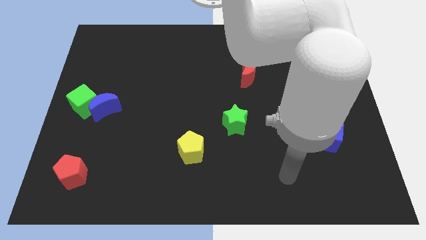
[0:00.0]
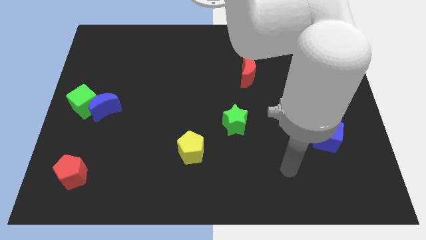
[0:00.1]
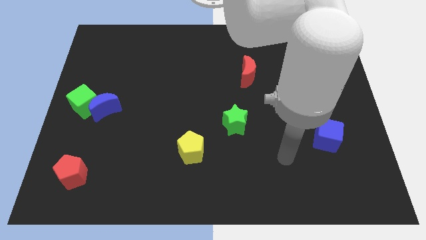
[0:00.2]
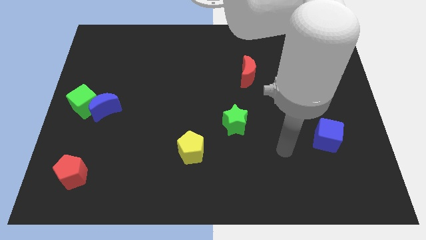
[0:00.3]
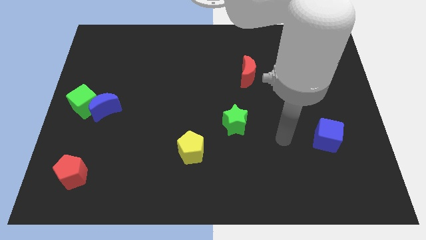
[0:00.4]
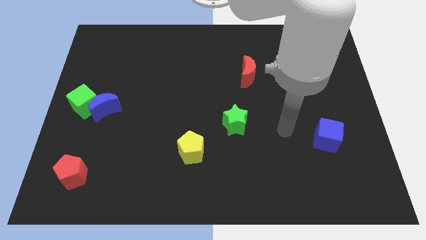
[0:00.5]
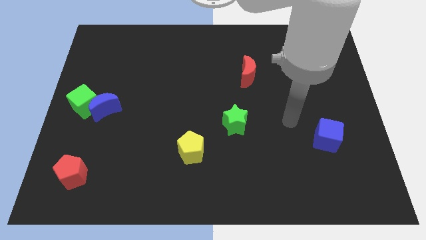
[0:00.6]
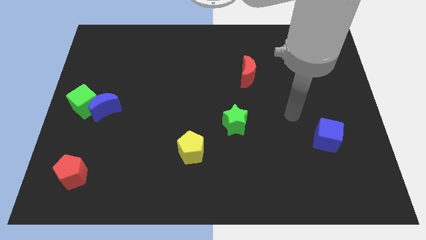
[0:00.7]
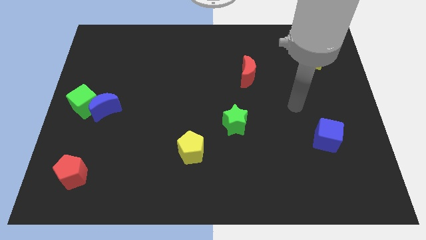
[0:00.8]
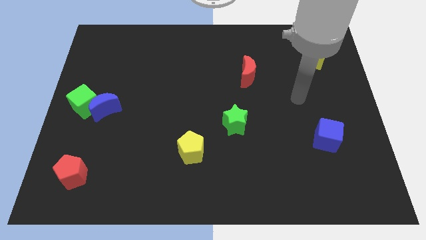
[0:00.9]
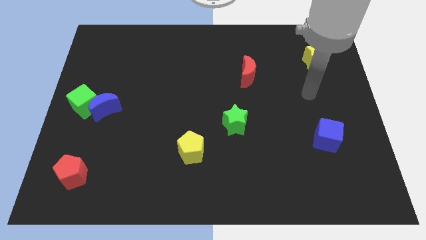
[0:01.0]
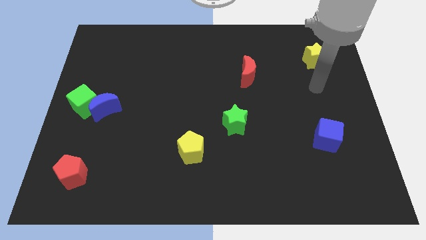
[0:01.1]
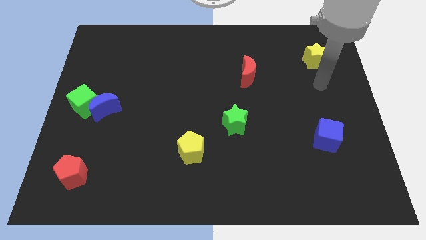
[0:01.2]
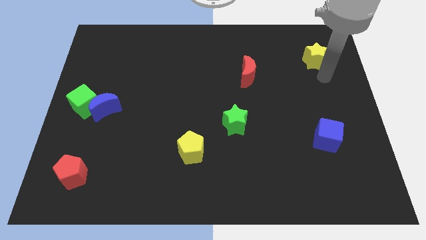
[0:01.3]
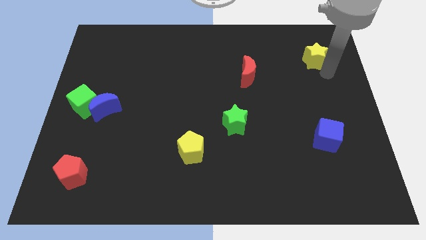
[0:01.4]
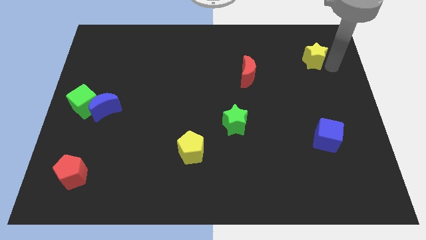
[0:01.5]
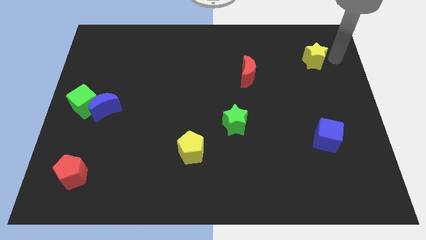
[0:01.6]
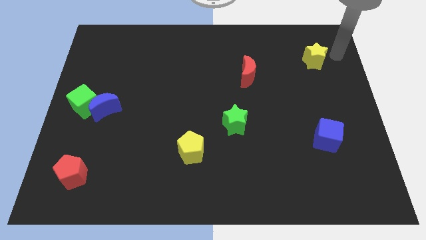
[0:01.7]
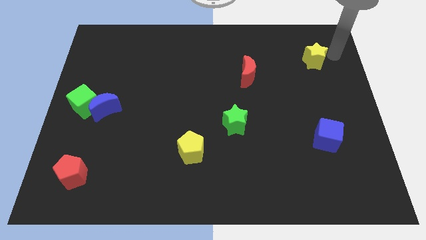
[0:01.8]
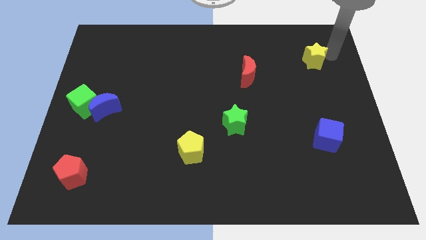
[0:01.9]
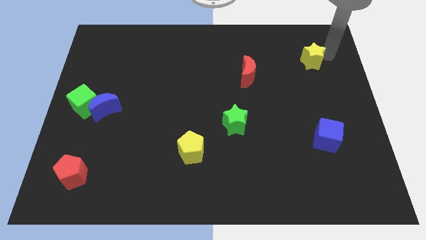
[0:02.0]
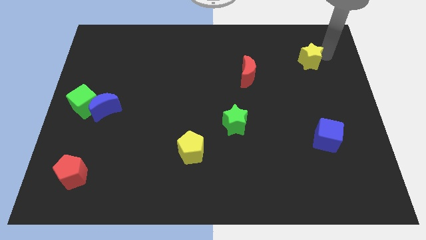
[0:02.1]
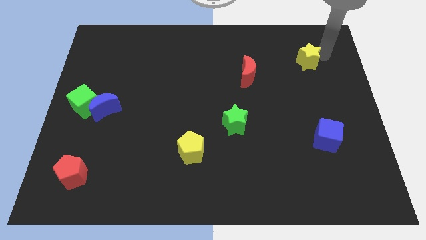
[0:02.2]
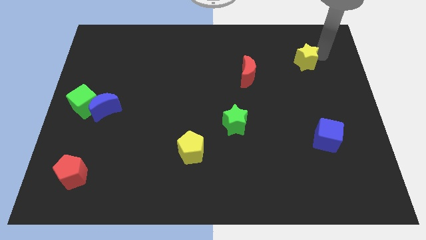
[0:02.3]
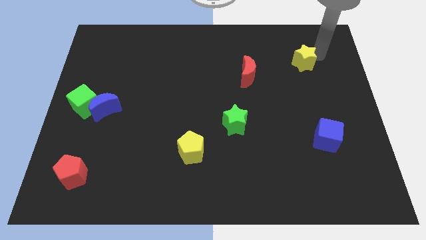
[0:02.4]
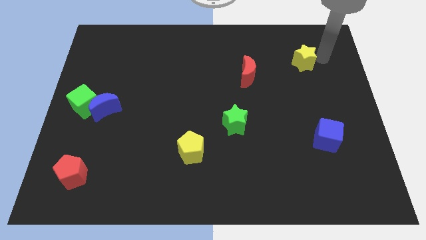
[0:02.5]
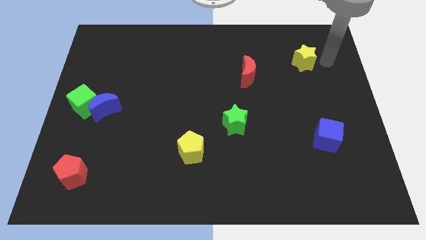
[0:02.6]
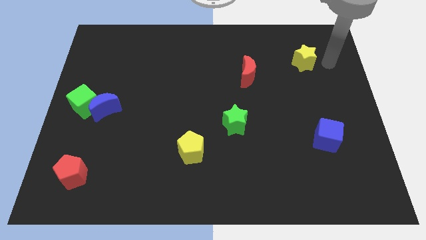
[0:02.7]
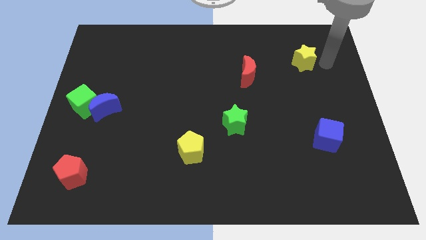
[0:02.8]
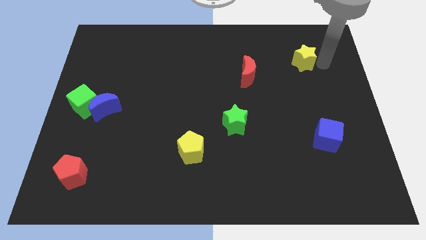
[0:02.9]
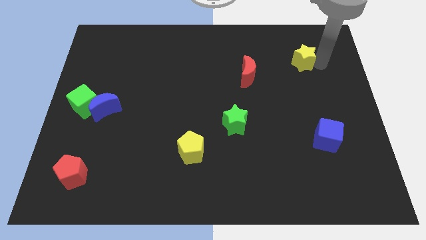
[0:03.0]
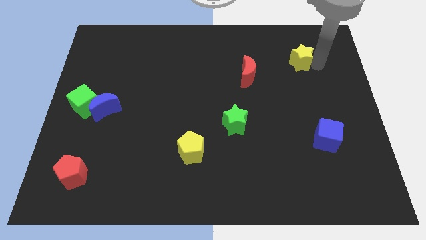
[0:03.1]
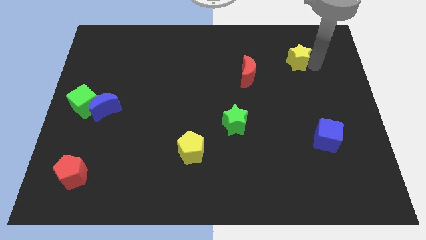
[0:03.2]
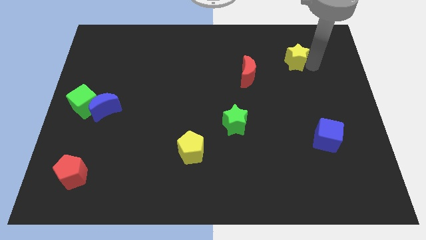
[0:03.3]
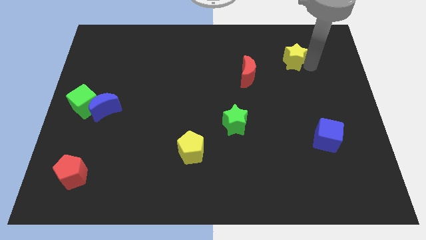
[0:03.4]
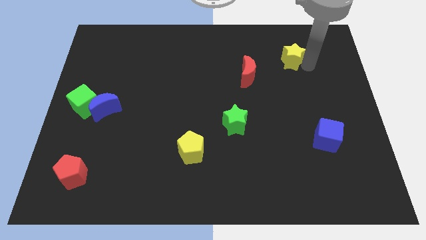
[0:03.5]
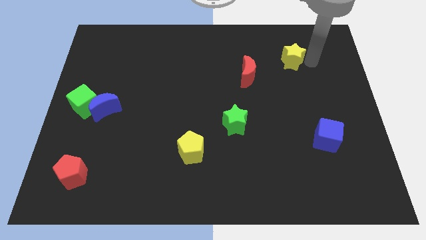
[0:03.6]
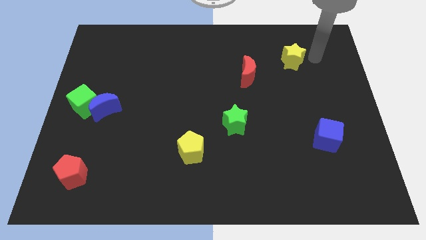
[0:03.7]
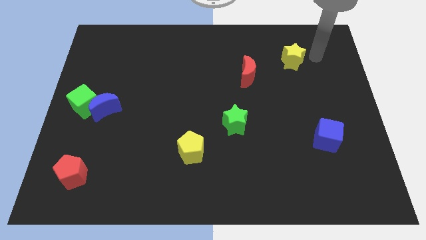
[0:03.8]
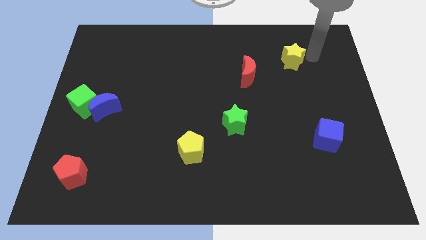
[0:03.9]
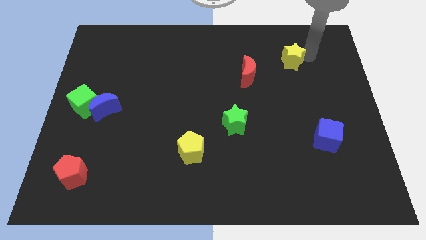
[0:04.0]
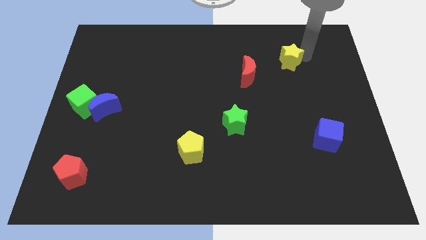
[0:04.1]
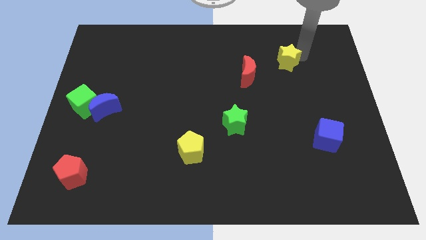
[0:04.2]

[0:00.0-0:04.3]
slightly slide the yellow star to the left

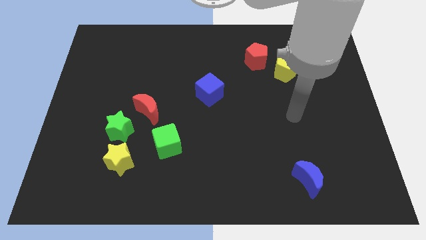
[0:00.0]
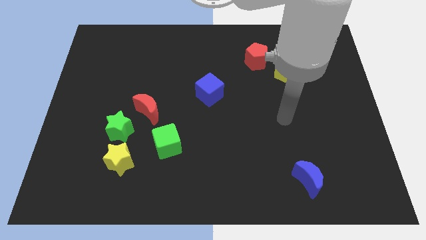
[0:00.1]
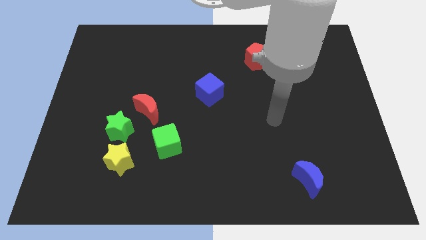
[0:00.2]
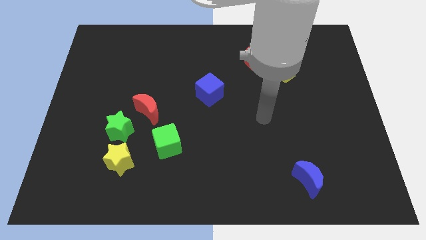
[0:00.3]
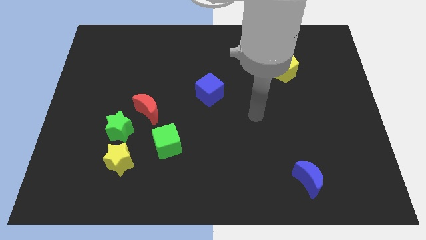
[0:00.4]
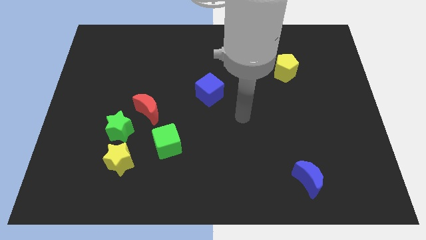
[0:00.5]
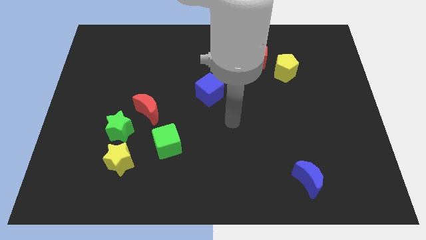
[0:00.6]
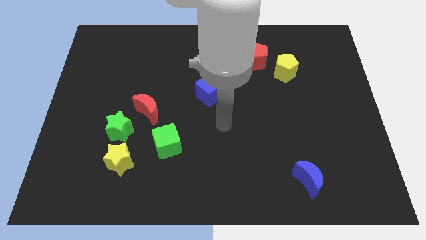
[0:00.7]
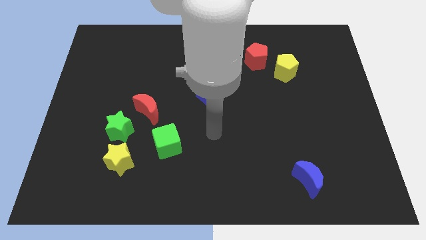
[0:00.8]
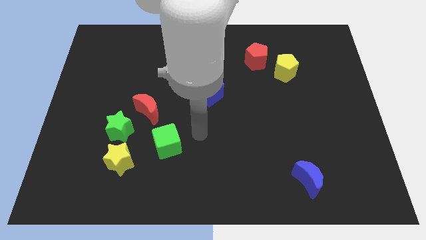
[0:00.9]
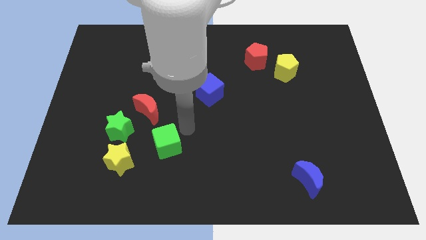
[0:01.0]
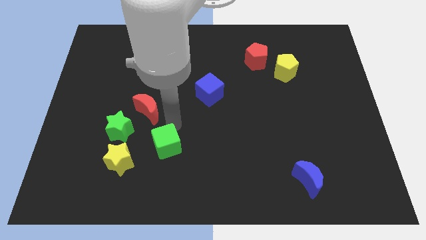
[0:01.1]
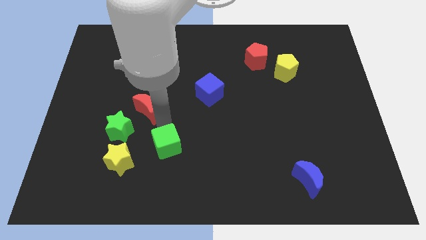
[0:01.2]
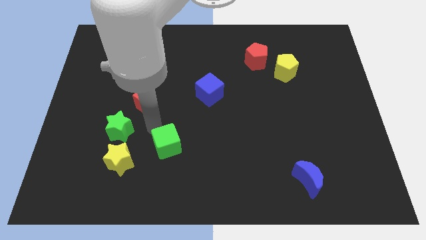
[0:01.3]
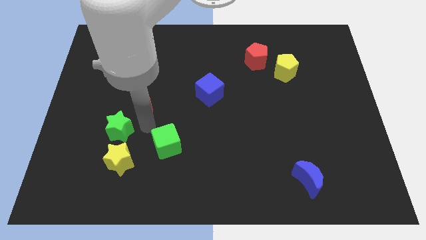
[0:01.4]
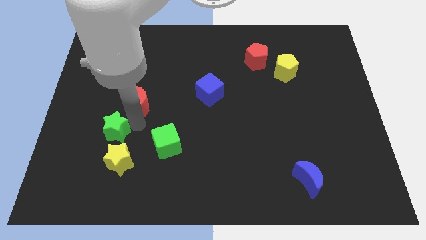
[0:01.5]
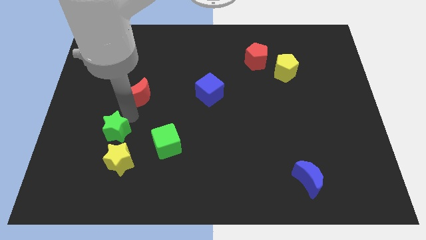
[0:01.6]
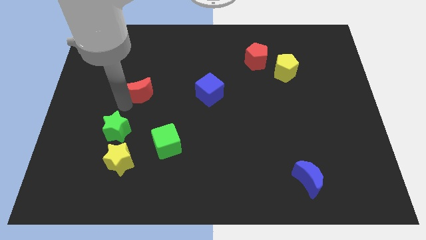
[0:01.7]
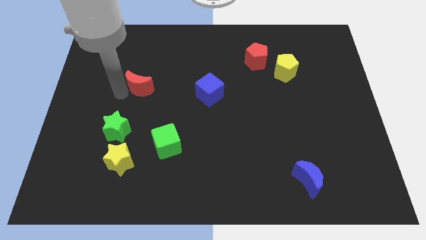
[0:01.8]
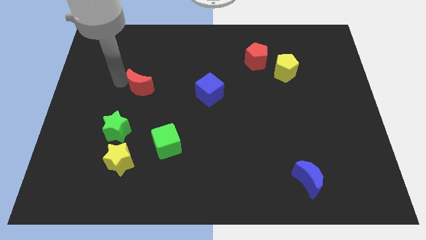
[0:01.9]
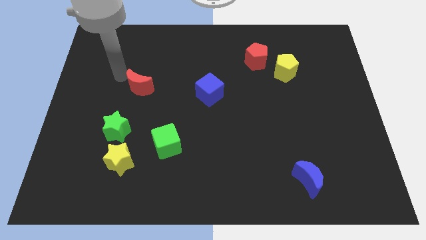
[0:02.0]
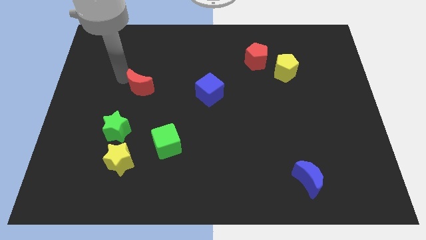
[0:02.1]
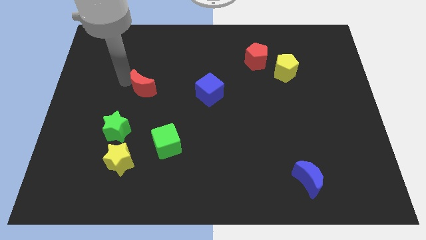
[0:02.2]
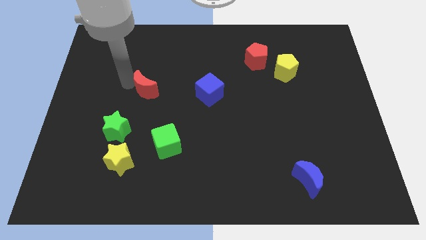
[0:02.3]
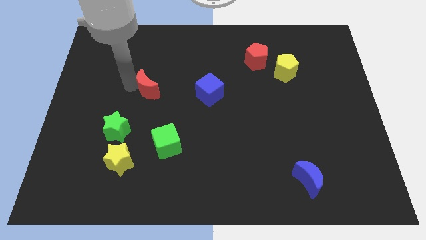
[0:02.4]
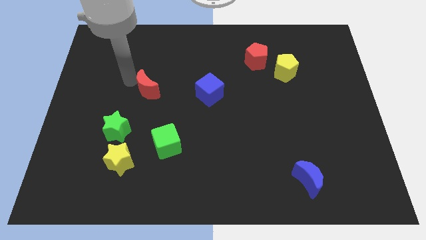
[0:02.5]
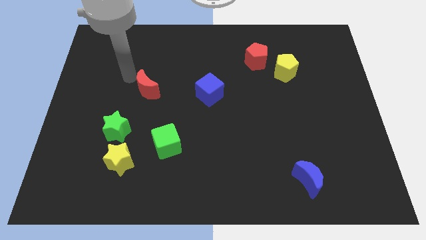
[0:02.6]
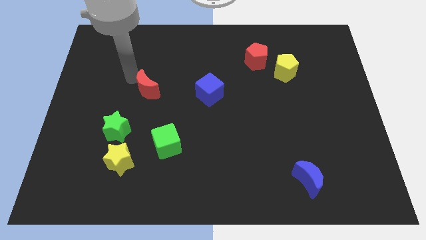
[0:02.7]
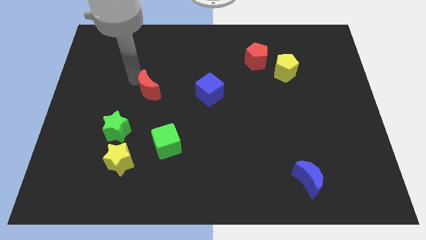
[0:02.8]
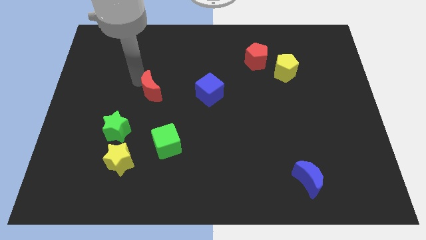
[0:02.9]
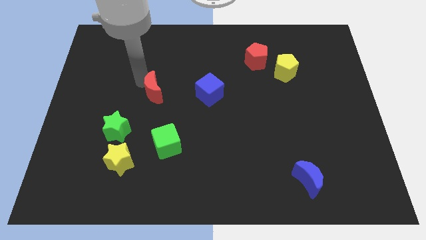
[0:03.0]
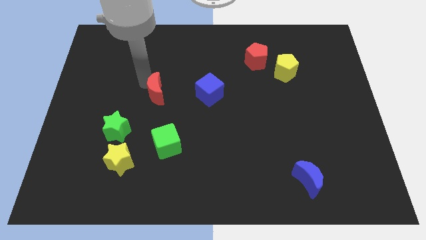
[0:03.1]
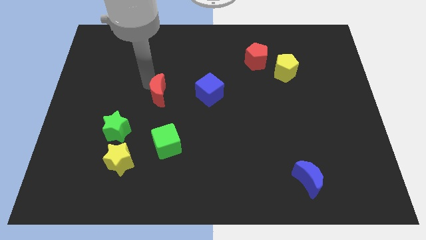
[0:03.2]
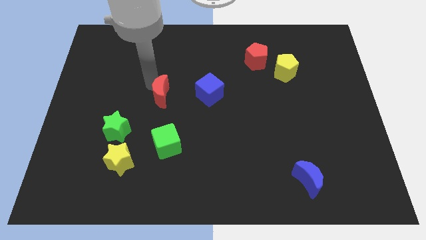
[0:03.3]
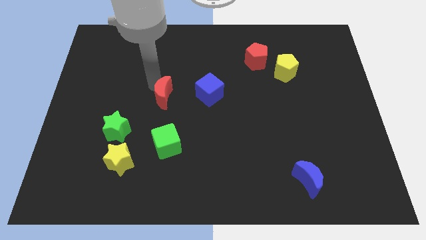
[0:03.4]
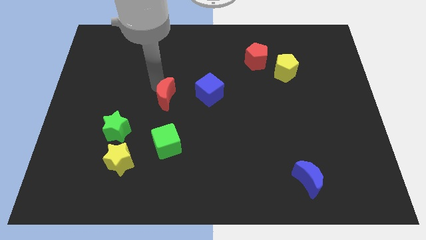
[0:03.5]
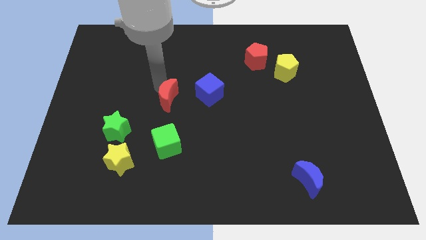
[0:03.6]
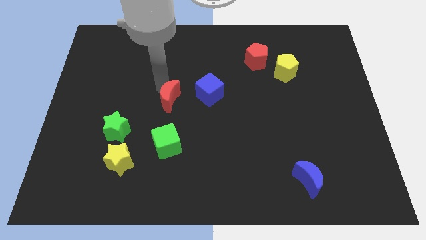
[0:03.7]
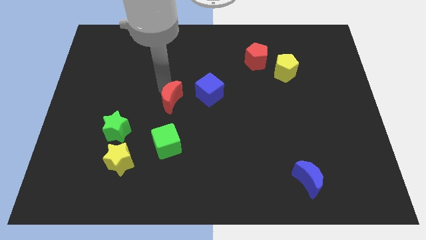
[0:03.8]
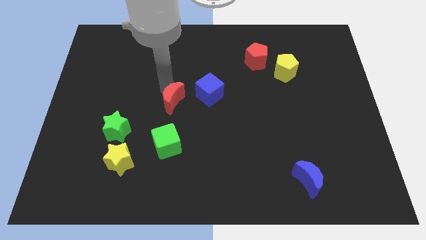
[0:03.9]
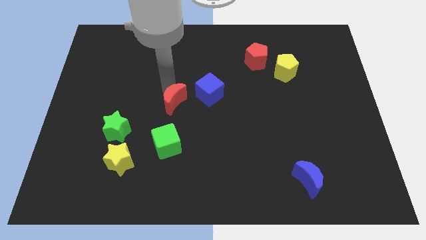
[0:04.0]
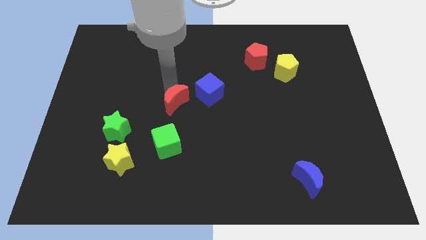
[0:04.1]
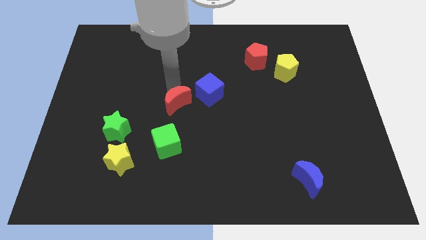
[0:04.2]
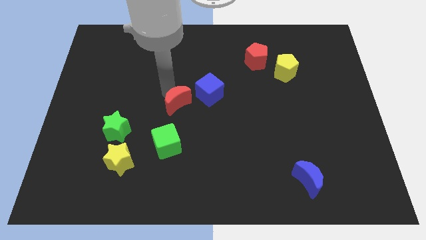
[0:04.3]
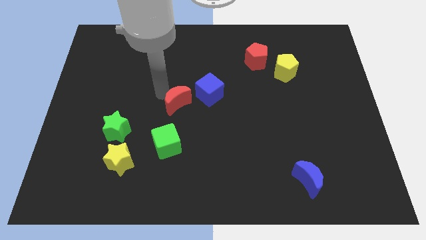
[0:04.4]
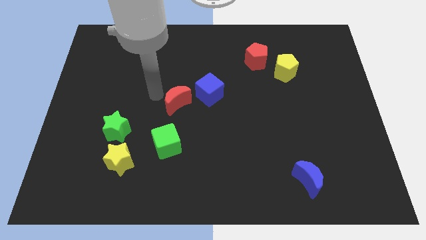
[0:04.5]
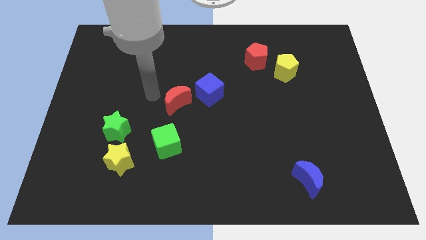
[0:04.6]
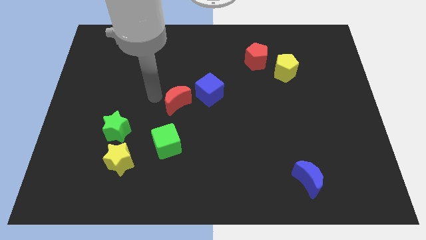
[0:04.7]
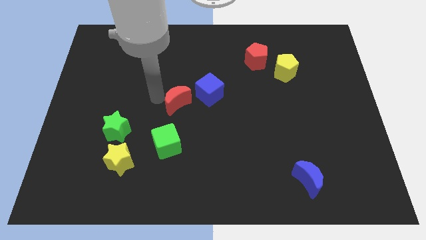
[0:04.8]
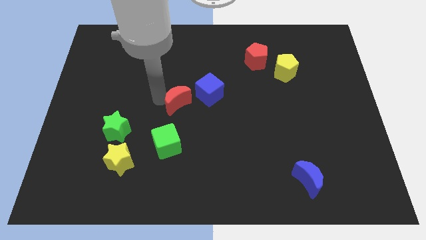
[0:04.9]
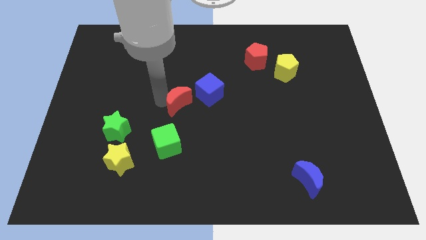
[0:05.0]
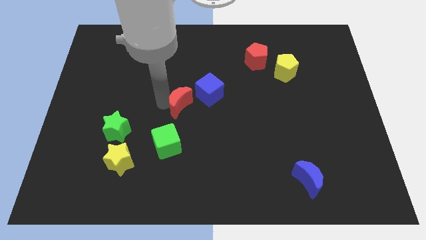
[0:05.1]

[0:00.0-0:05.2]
slightly push the red moon to the right
